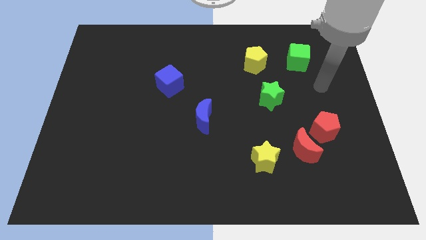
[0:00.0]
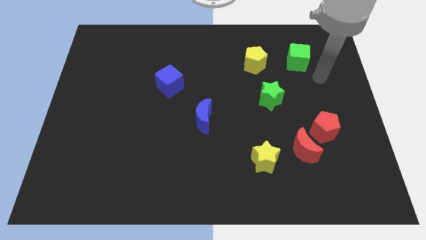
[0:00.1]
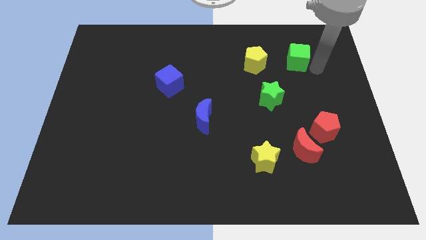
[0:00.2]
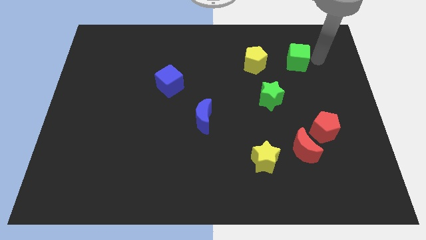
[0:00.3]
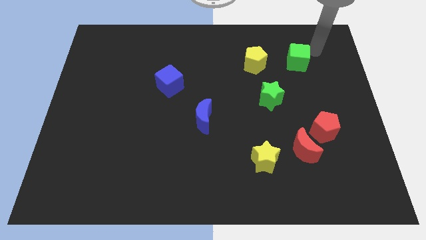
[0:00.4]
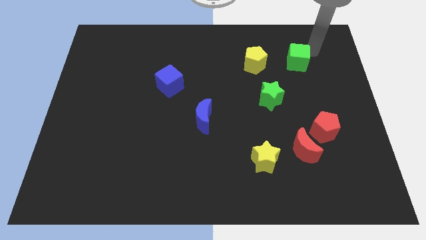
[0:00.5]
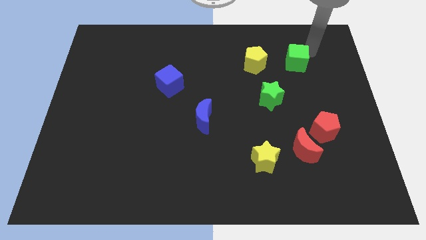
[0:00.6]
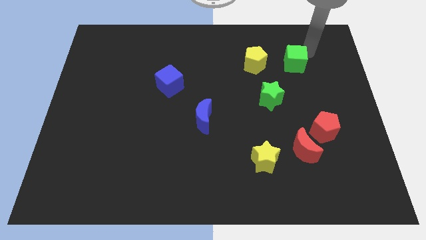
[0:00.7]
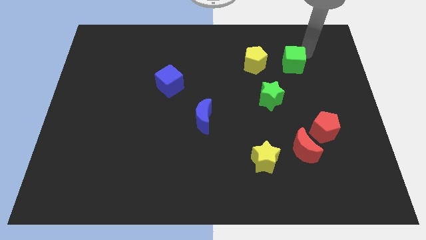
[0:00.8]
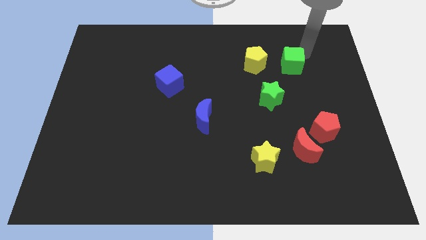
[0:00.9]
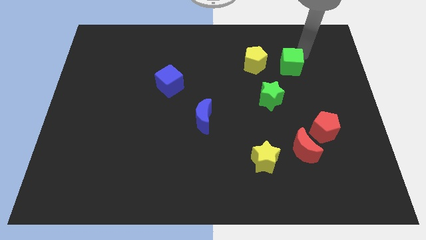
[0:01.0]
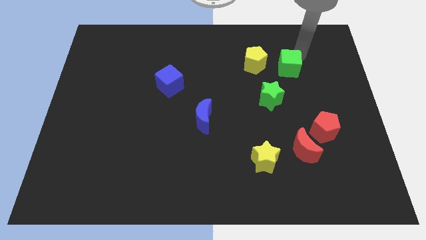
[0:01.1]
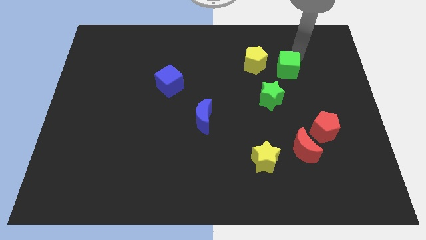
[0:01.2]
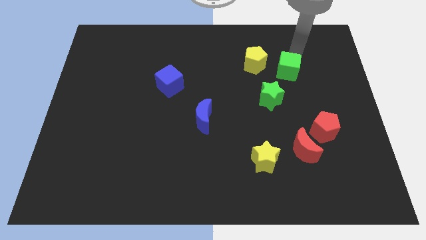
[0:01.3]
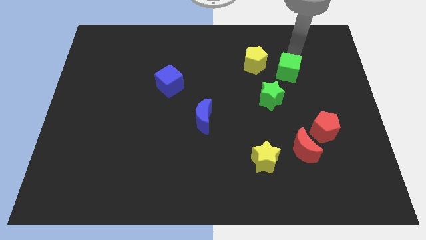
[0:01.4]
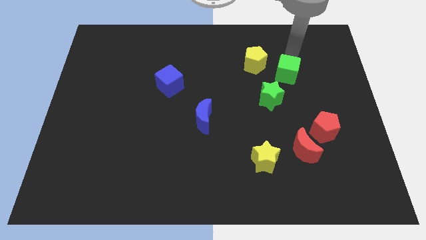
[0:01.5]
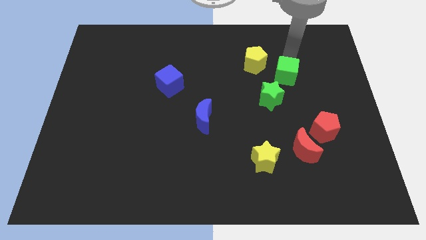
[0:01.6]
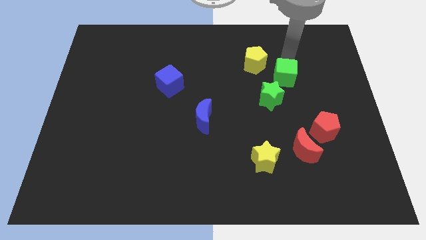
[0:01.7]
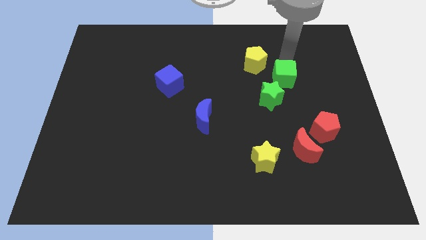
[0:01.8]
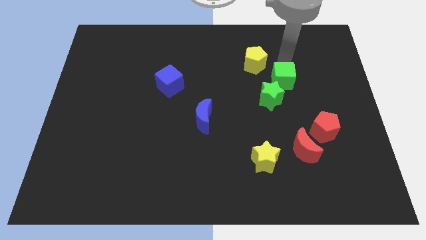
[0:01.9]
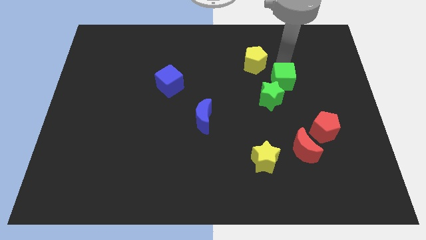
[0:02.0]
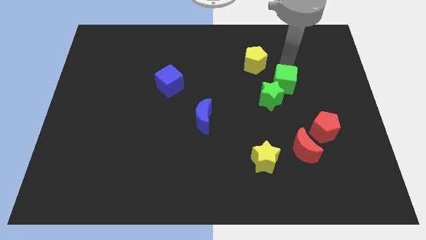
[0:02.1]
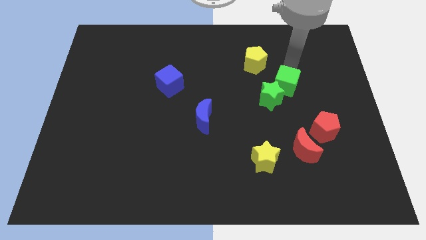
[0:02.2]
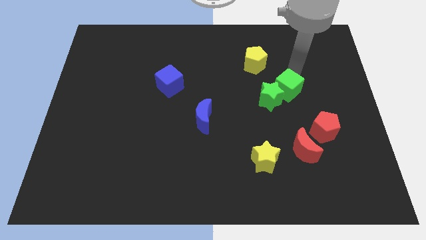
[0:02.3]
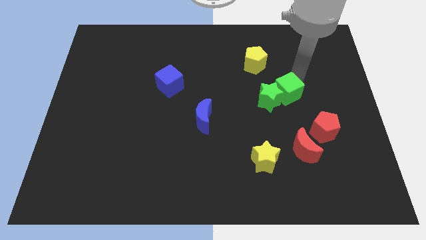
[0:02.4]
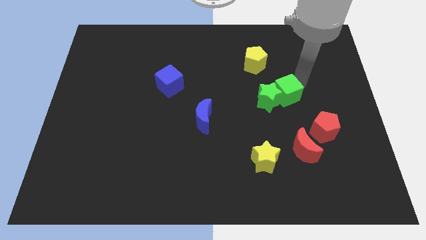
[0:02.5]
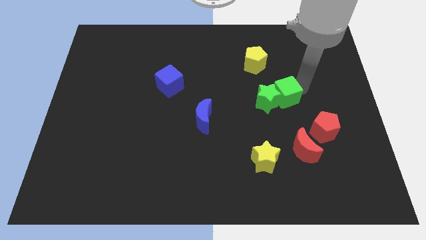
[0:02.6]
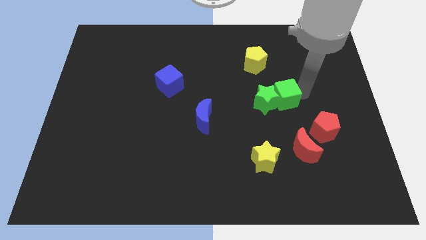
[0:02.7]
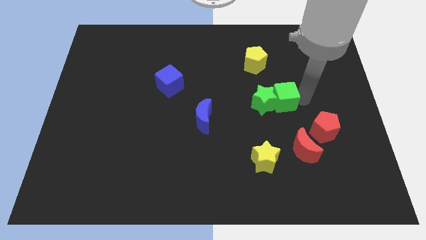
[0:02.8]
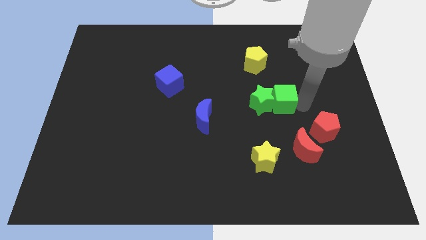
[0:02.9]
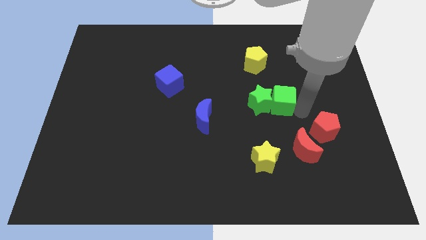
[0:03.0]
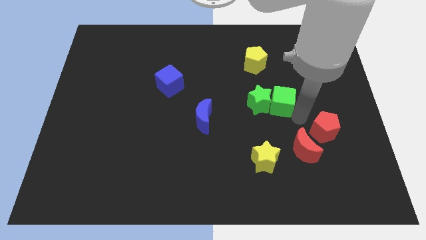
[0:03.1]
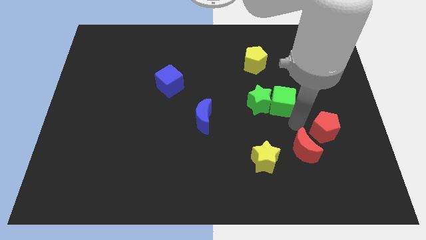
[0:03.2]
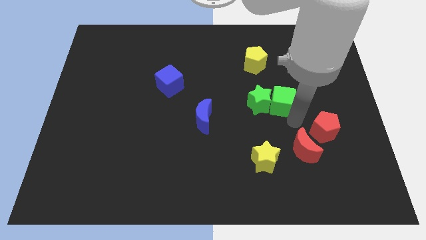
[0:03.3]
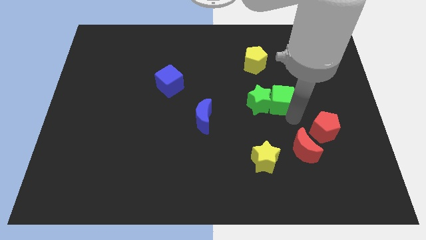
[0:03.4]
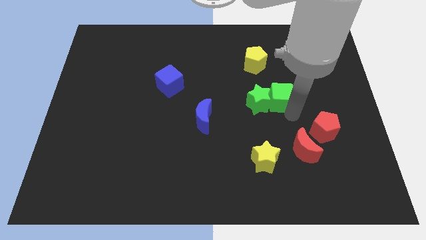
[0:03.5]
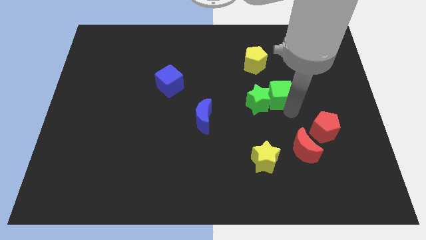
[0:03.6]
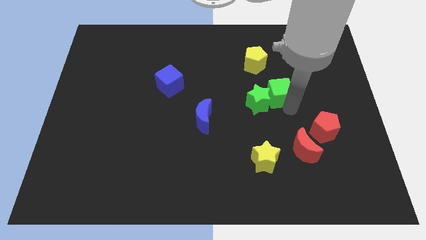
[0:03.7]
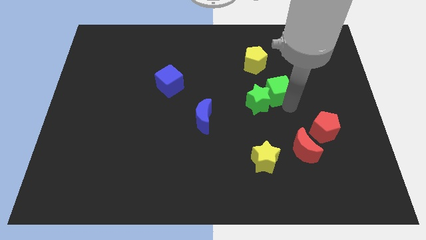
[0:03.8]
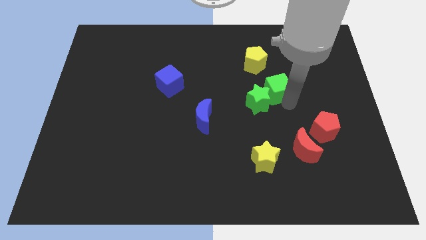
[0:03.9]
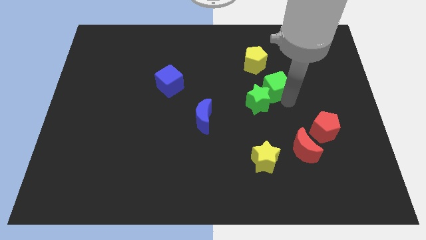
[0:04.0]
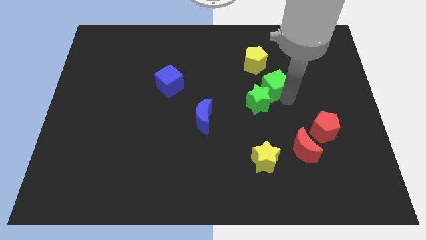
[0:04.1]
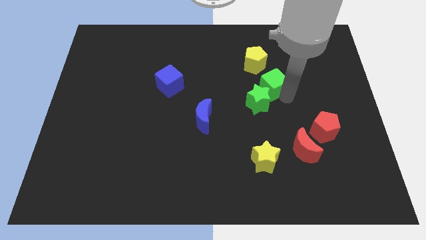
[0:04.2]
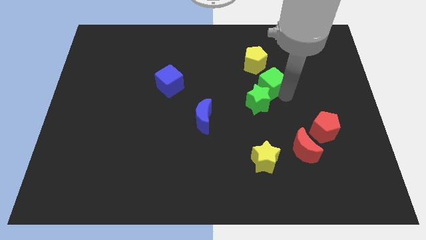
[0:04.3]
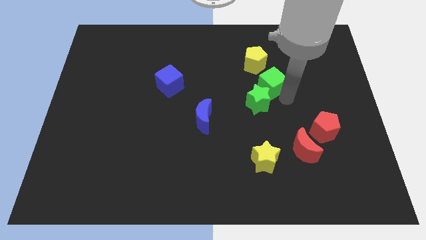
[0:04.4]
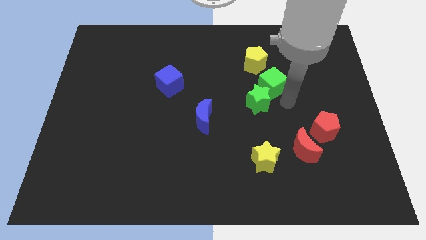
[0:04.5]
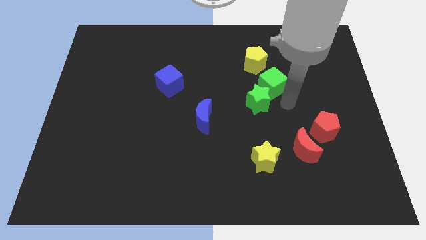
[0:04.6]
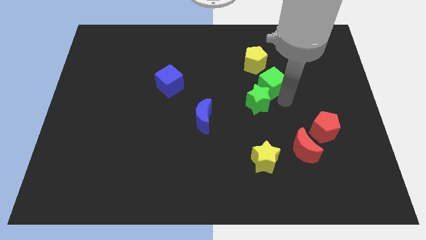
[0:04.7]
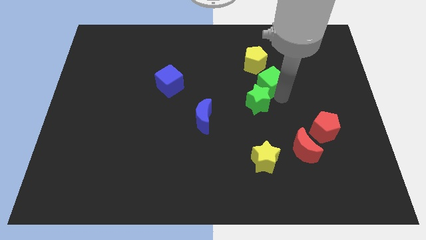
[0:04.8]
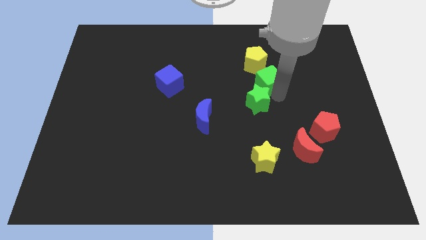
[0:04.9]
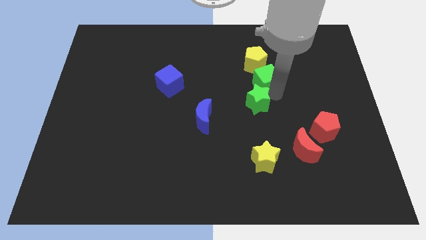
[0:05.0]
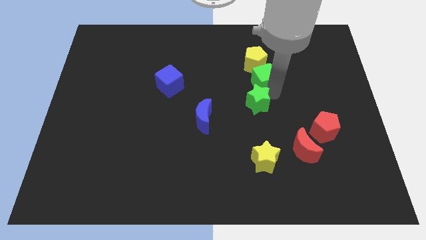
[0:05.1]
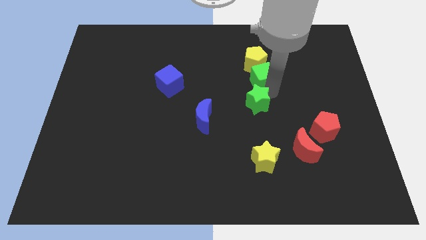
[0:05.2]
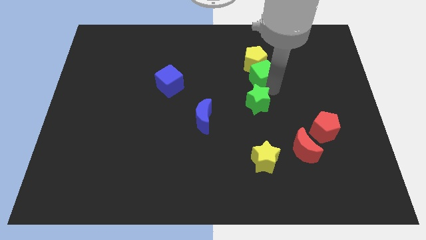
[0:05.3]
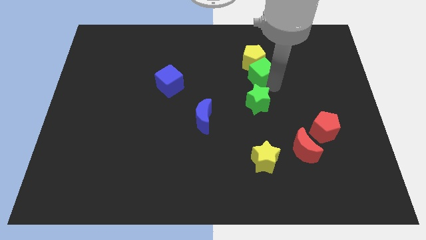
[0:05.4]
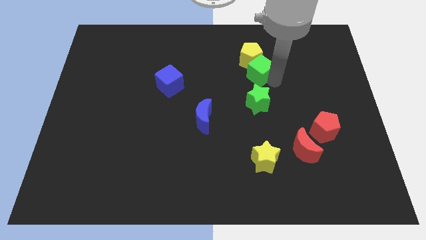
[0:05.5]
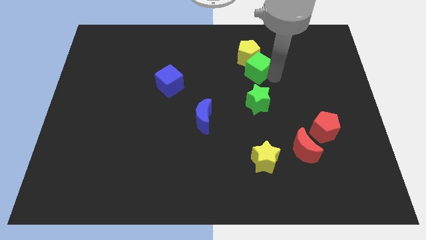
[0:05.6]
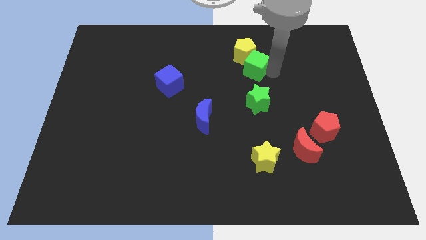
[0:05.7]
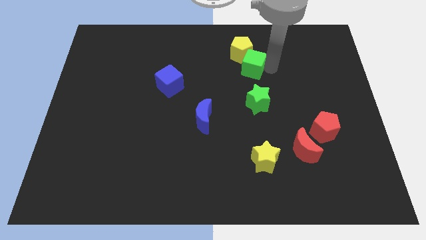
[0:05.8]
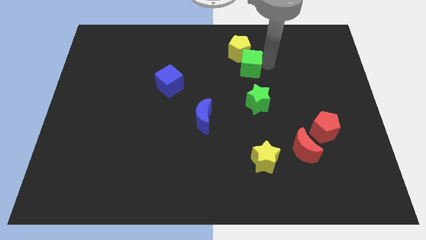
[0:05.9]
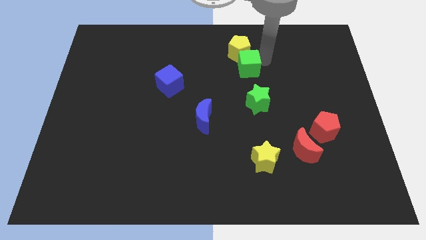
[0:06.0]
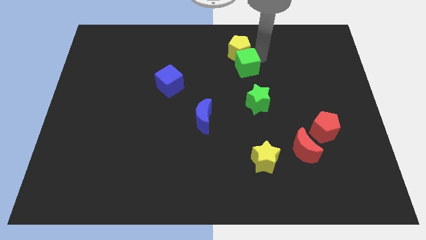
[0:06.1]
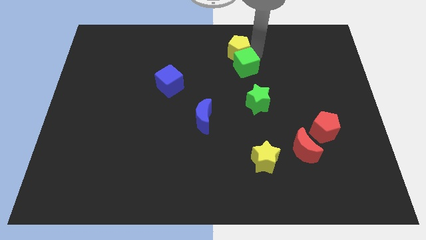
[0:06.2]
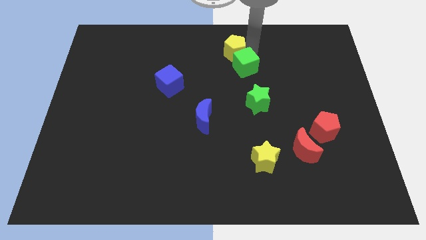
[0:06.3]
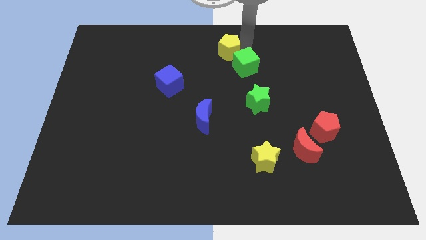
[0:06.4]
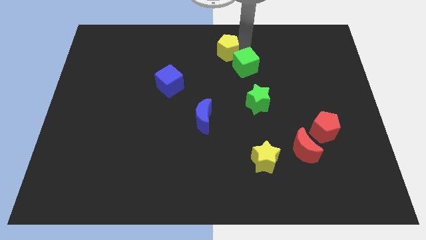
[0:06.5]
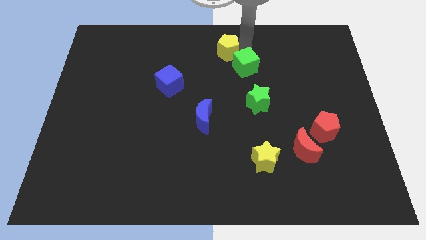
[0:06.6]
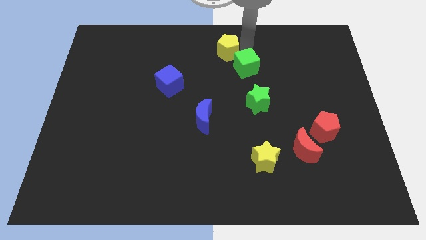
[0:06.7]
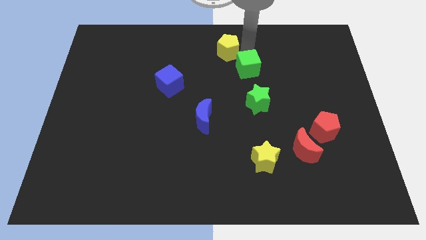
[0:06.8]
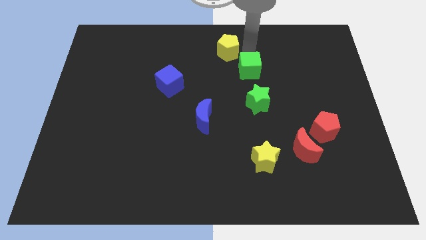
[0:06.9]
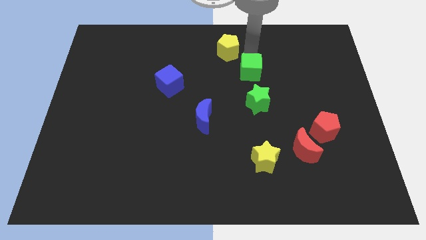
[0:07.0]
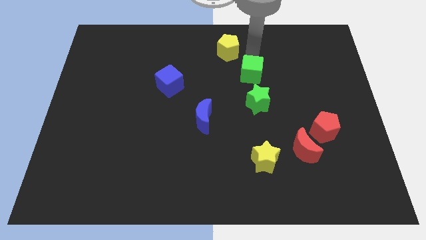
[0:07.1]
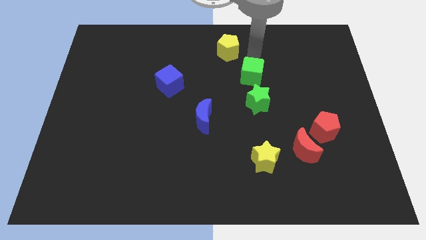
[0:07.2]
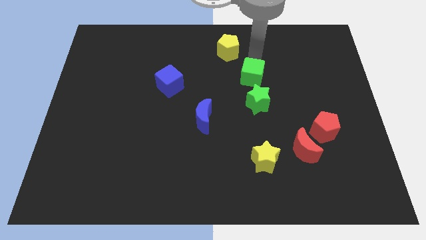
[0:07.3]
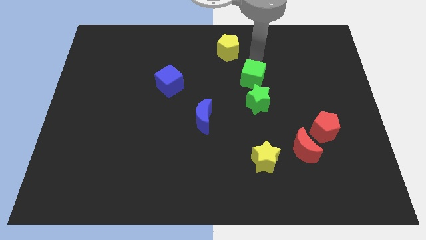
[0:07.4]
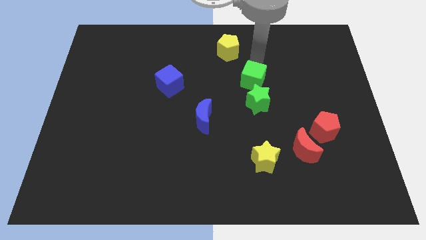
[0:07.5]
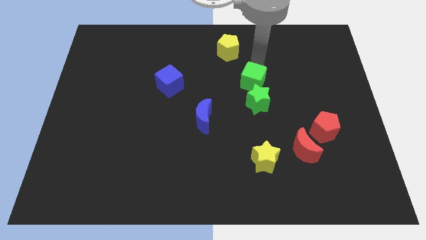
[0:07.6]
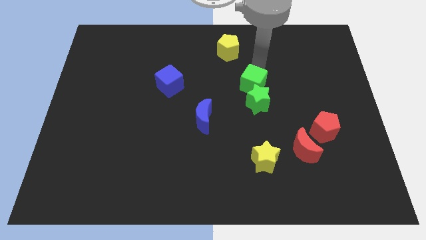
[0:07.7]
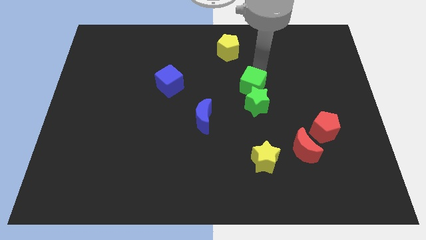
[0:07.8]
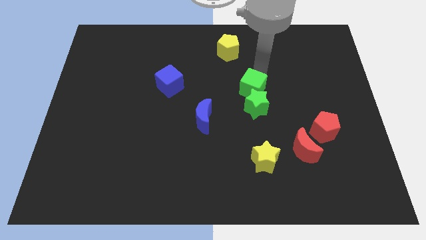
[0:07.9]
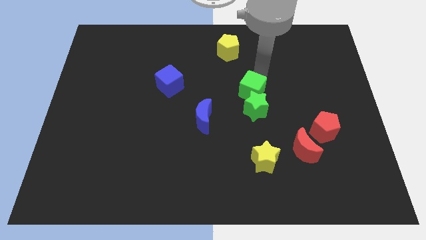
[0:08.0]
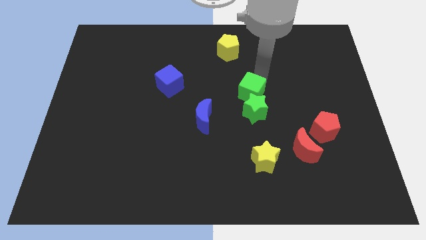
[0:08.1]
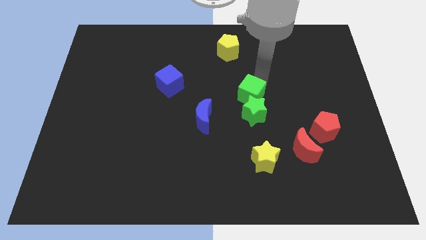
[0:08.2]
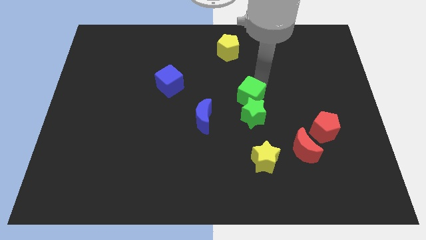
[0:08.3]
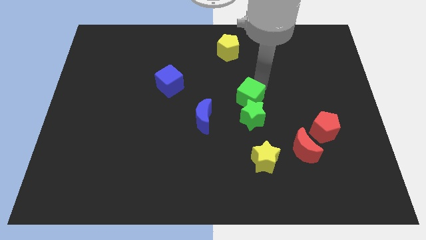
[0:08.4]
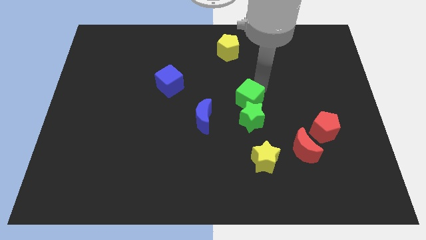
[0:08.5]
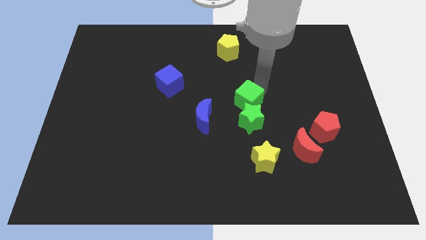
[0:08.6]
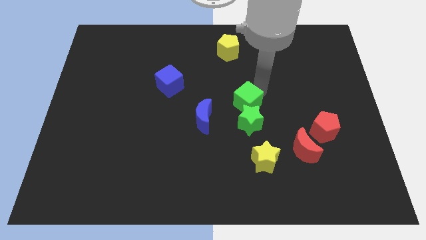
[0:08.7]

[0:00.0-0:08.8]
move the green cube down and left
